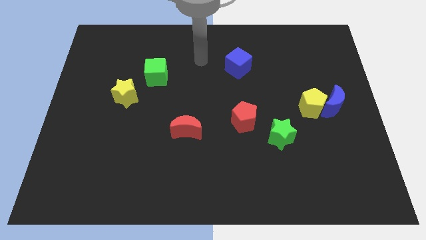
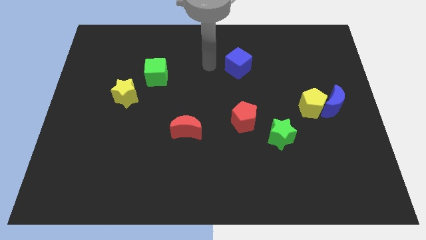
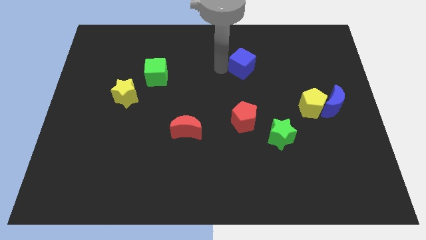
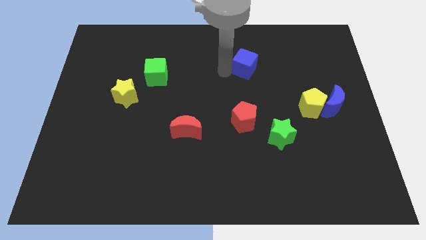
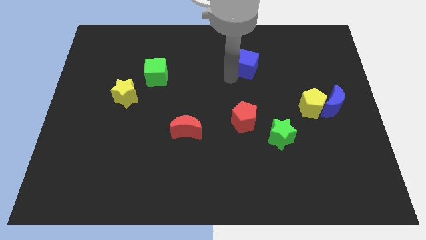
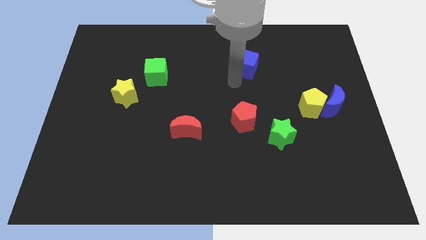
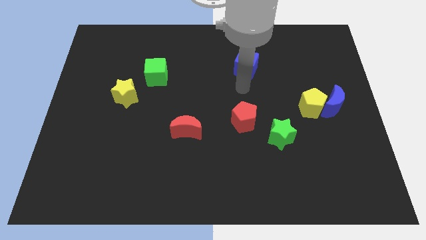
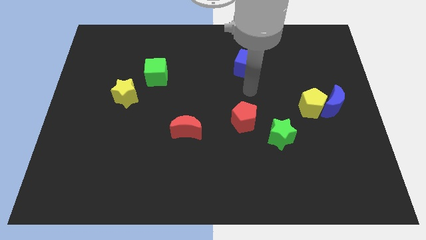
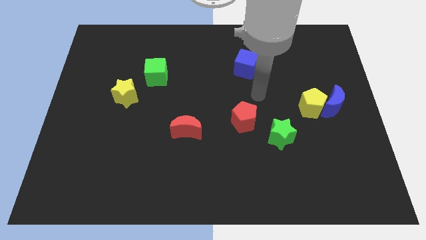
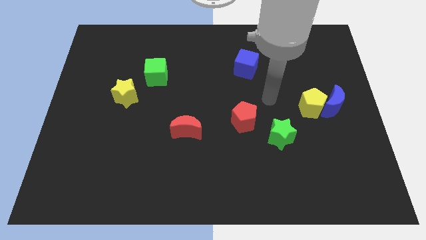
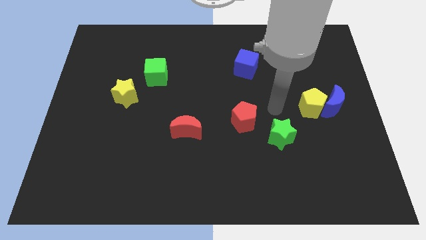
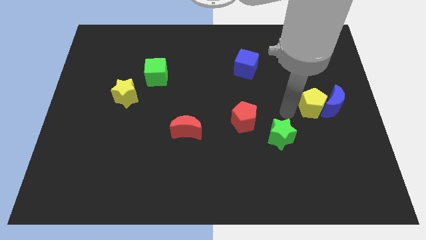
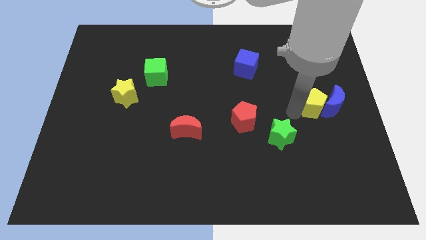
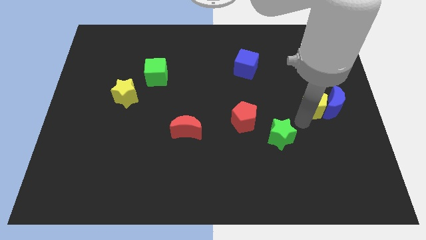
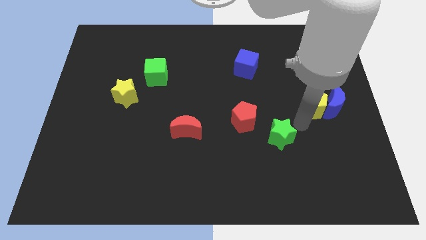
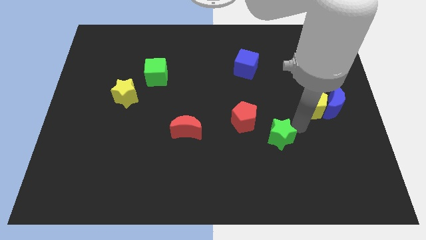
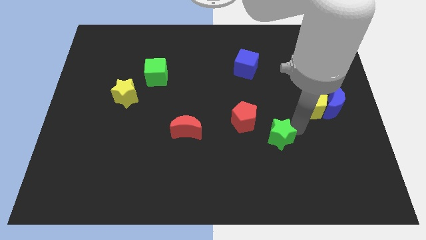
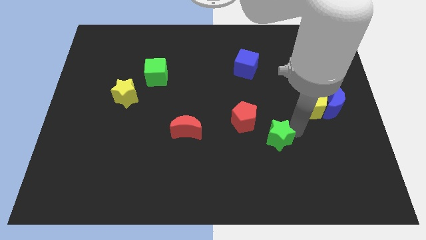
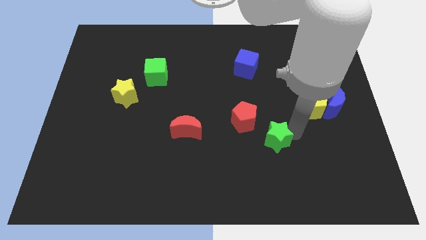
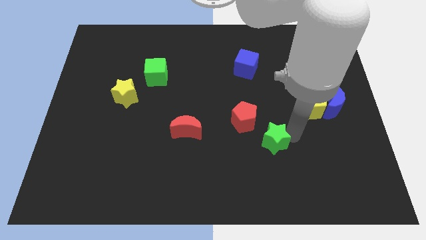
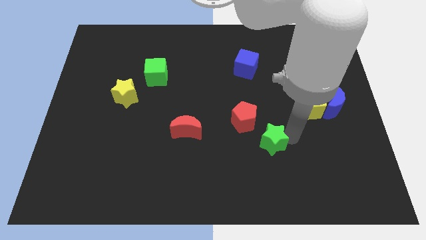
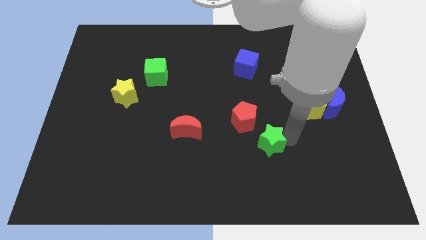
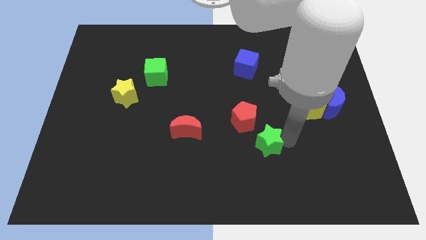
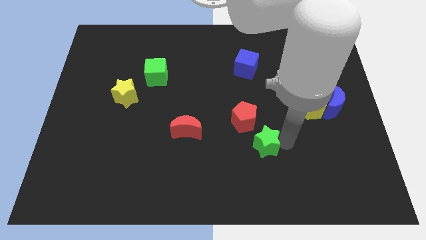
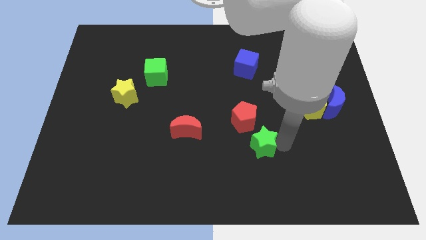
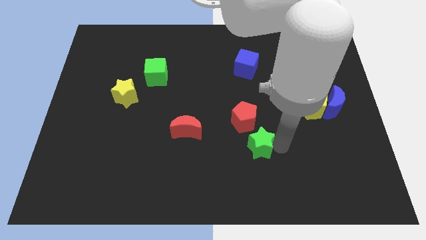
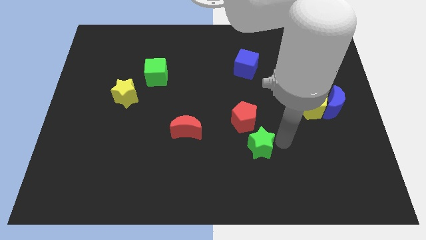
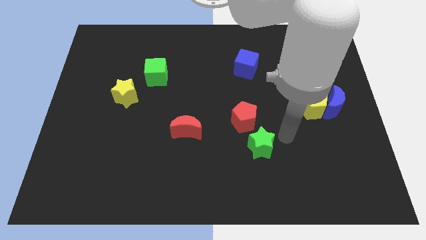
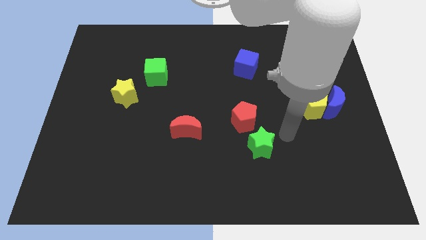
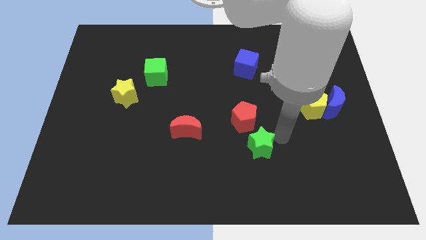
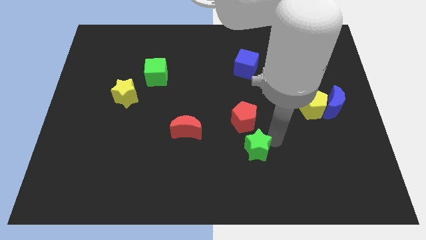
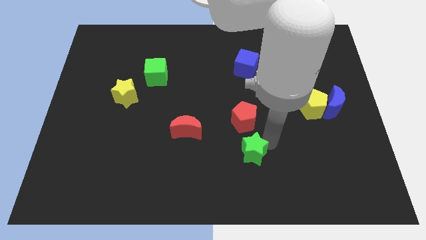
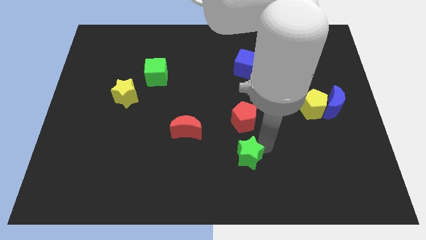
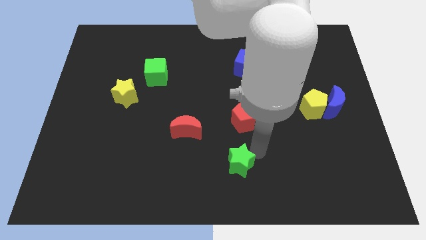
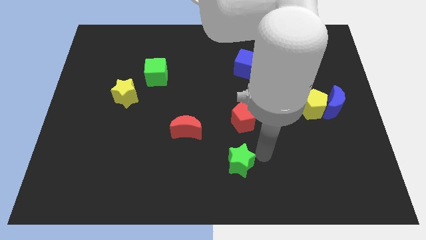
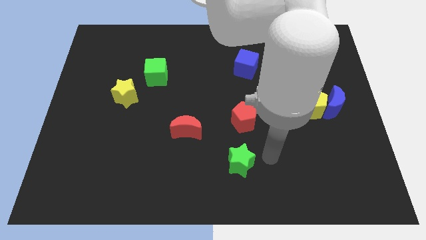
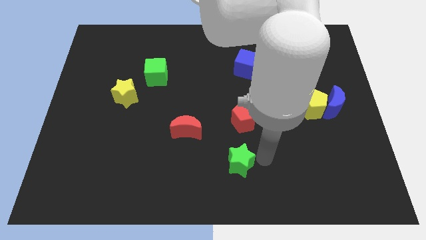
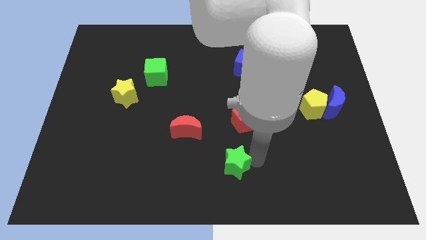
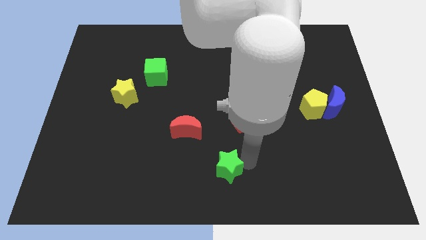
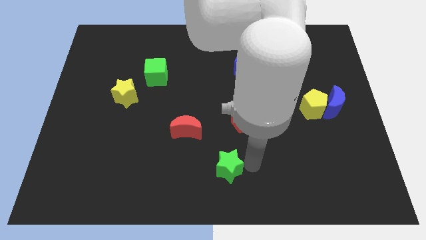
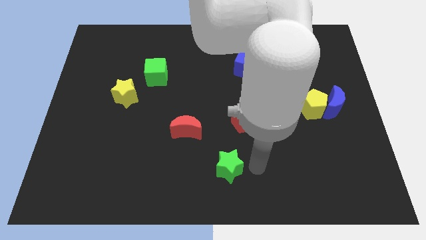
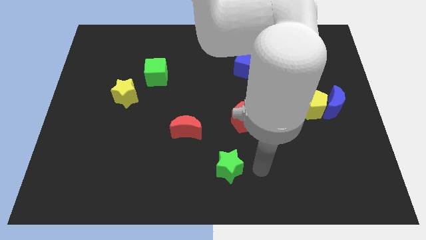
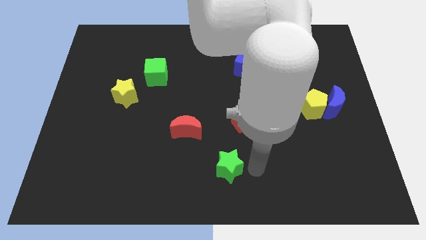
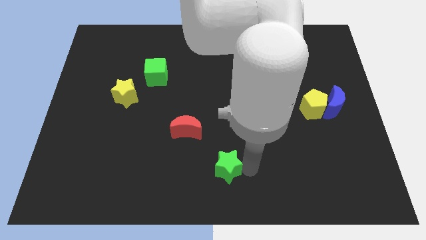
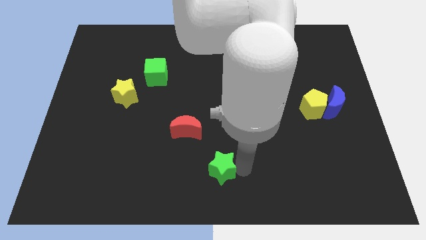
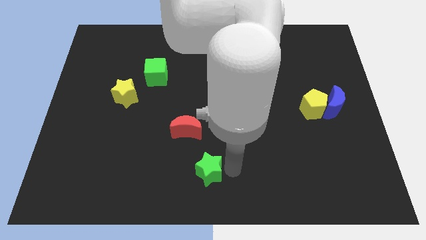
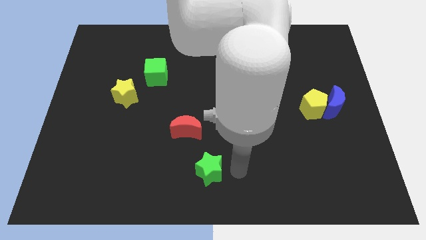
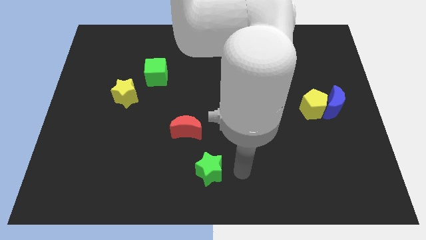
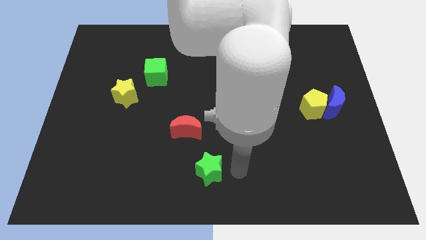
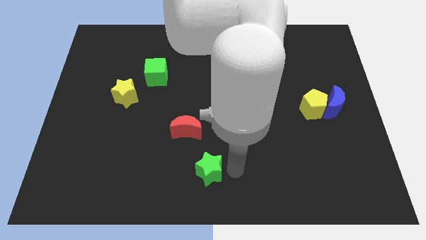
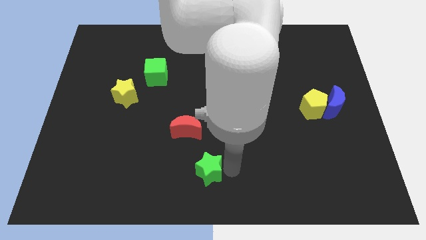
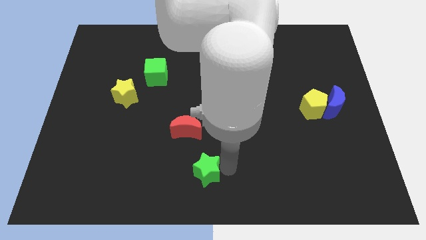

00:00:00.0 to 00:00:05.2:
move the green star to the bottom side of the red moon
